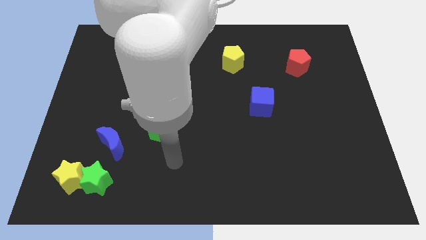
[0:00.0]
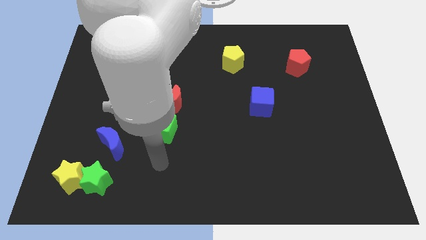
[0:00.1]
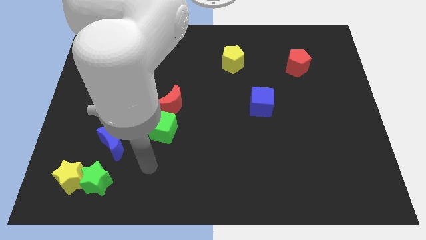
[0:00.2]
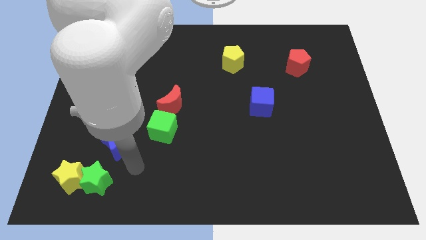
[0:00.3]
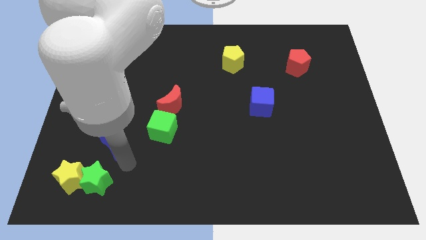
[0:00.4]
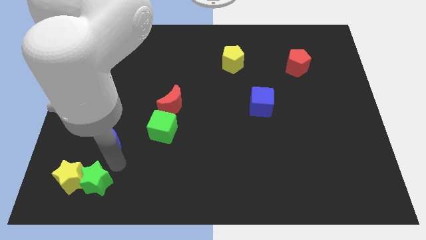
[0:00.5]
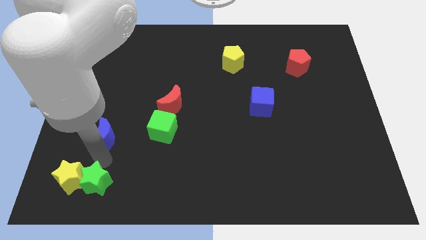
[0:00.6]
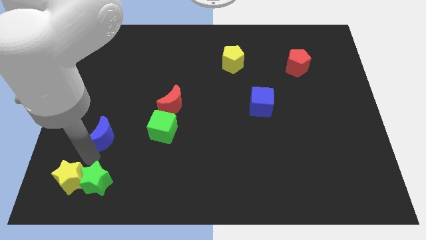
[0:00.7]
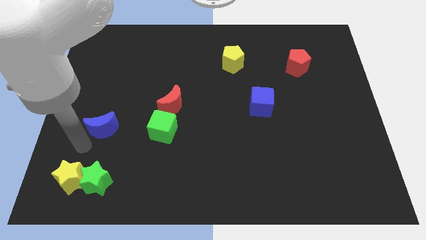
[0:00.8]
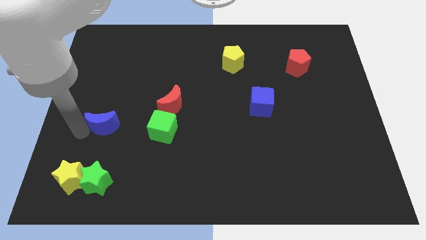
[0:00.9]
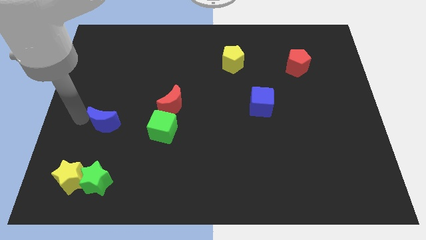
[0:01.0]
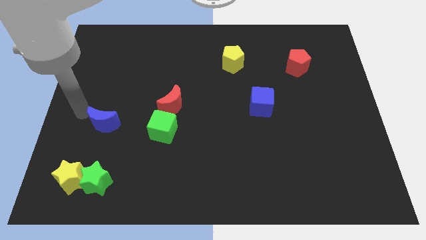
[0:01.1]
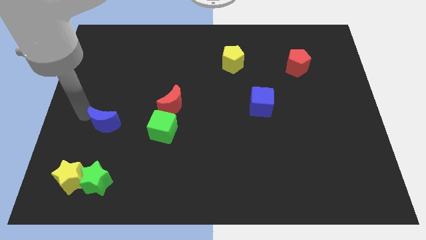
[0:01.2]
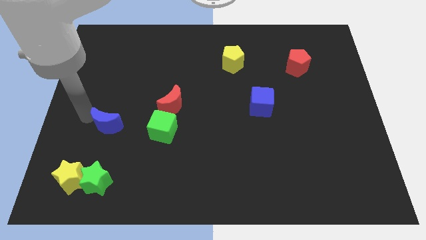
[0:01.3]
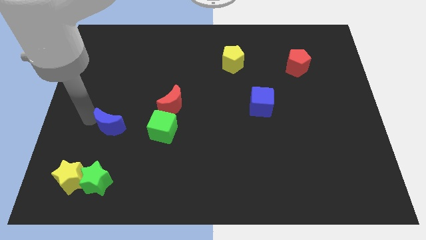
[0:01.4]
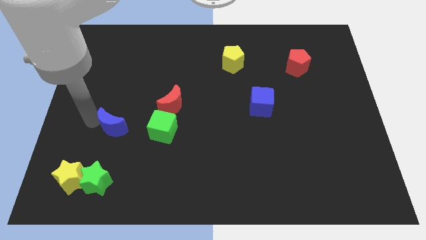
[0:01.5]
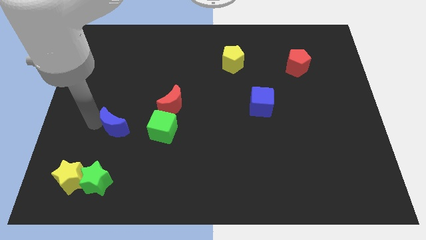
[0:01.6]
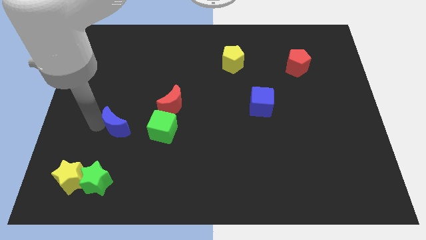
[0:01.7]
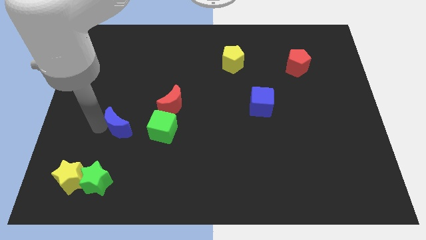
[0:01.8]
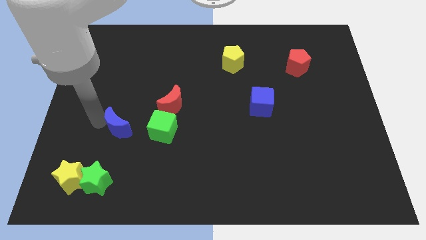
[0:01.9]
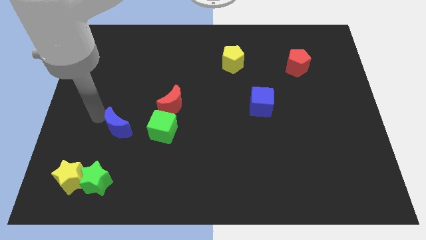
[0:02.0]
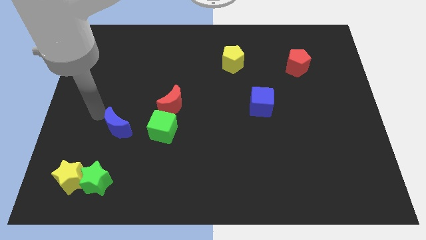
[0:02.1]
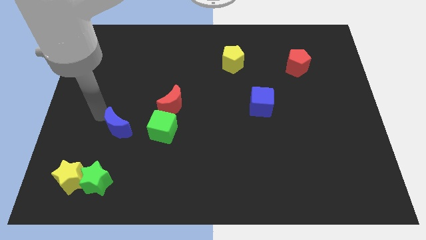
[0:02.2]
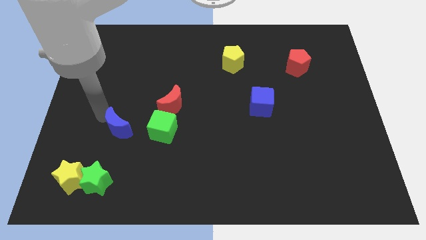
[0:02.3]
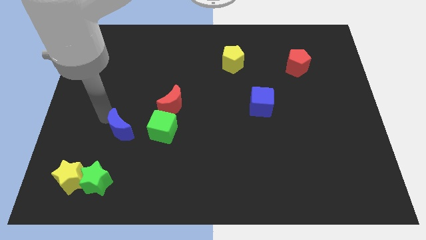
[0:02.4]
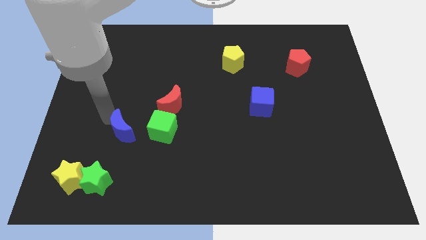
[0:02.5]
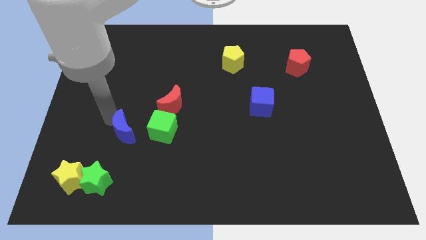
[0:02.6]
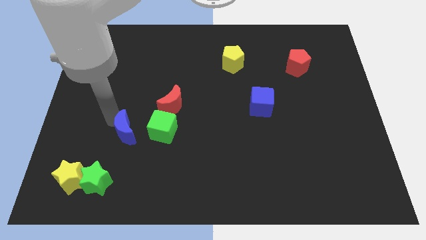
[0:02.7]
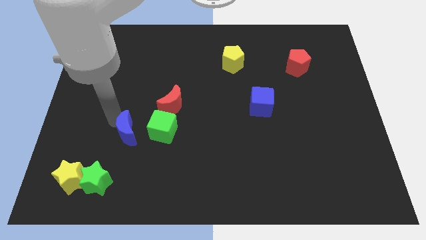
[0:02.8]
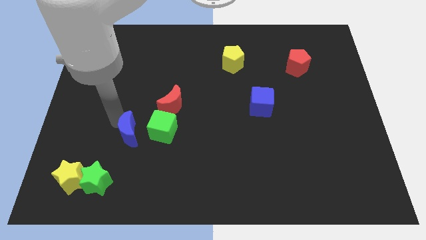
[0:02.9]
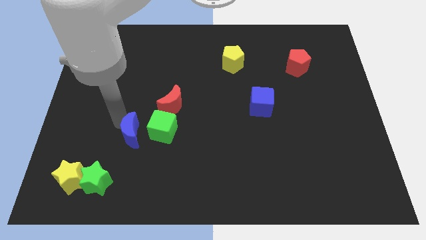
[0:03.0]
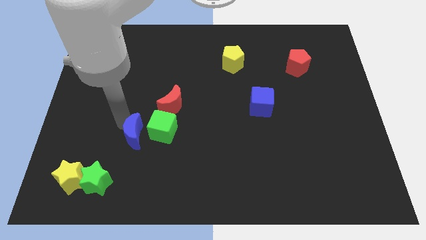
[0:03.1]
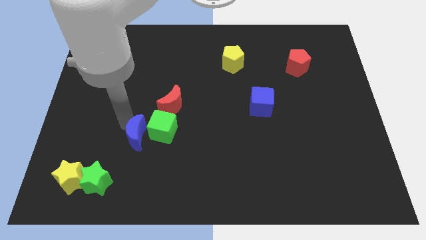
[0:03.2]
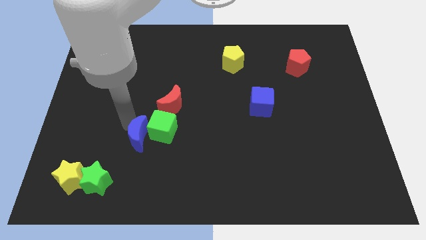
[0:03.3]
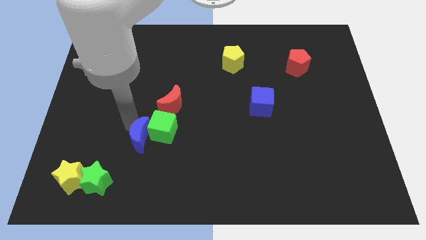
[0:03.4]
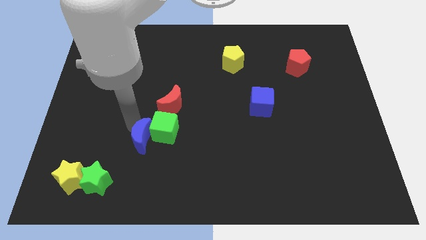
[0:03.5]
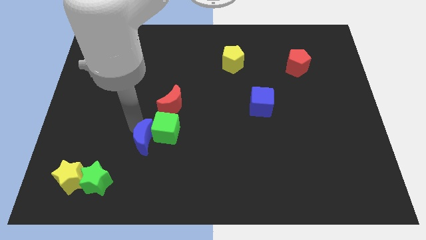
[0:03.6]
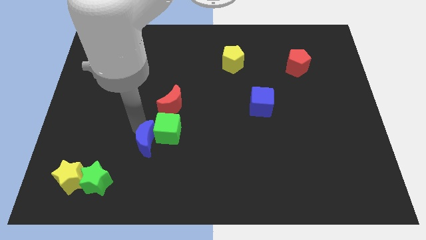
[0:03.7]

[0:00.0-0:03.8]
slide the blue moon a little bit to the right

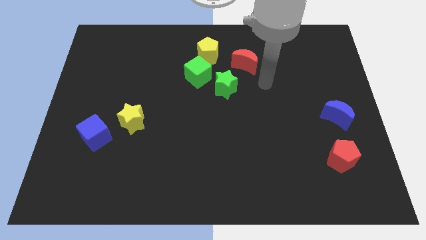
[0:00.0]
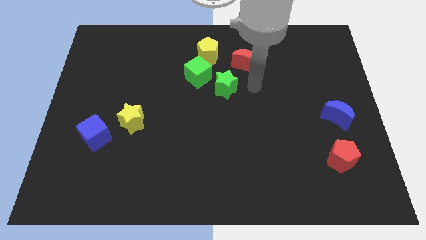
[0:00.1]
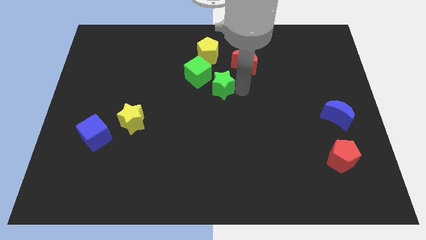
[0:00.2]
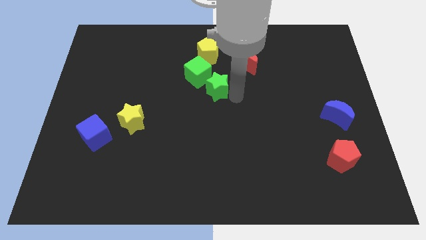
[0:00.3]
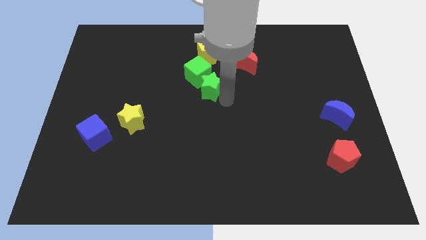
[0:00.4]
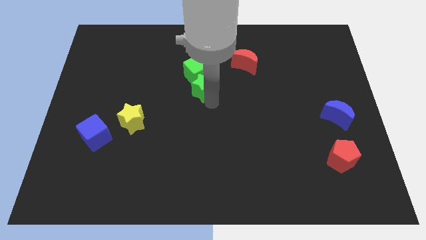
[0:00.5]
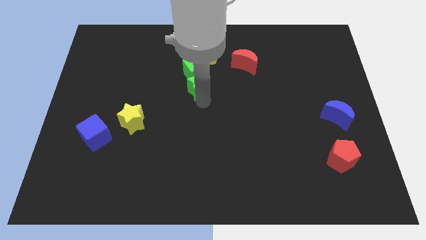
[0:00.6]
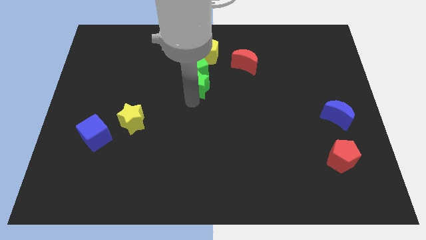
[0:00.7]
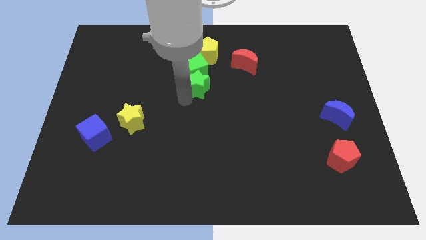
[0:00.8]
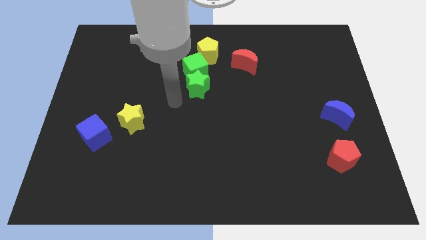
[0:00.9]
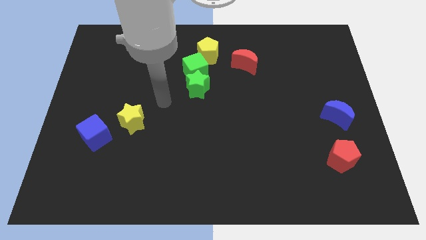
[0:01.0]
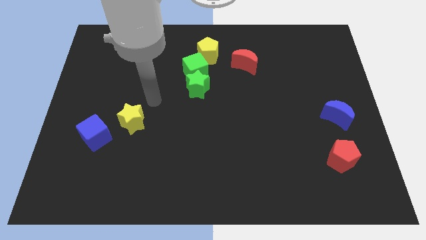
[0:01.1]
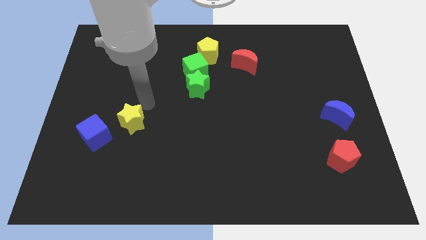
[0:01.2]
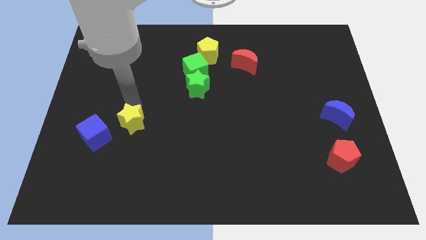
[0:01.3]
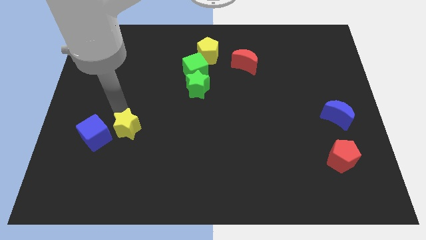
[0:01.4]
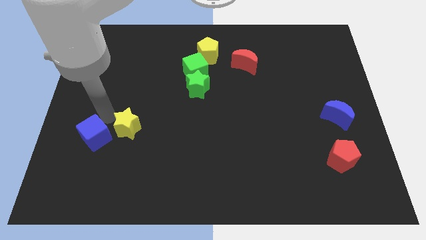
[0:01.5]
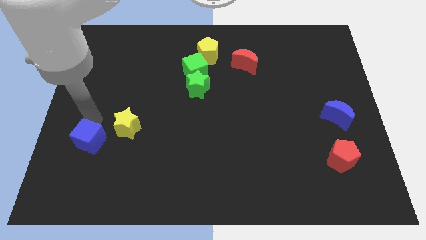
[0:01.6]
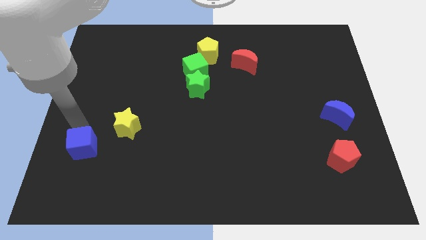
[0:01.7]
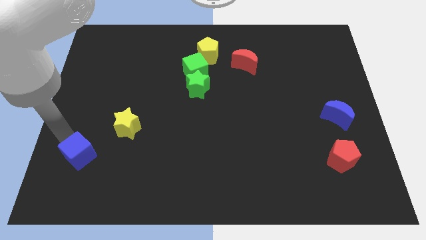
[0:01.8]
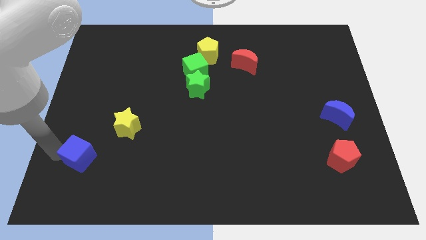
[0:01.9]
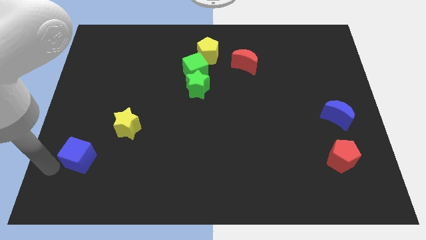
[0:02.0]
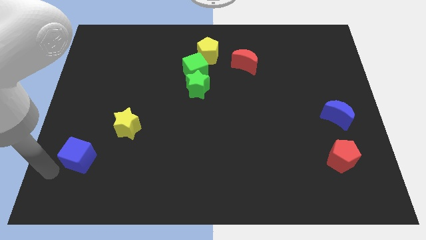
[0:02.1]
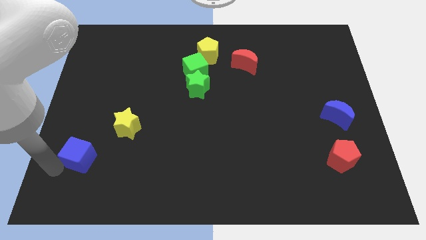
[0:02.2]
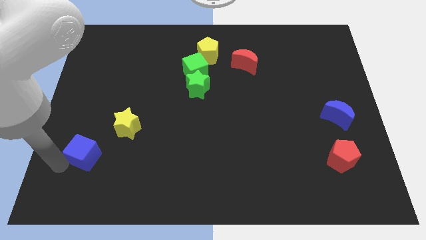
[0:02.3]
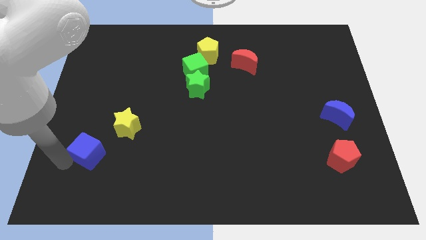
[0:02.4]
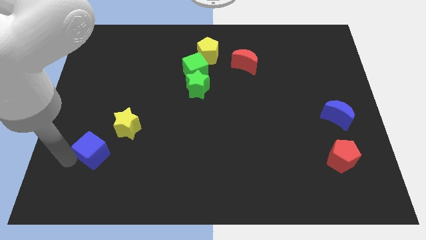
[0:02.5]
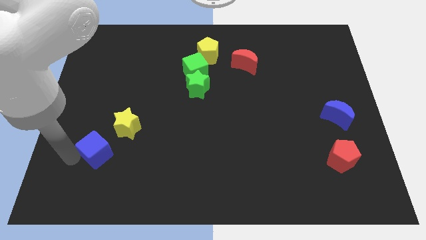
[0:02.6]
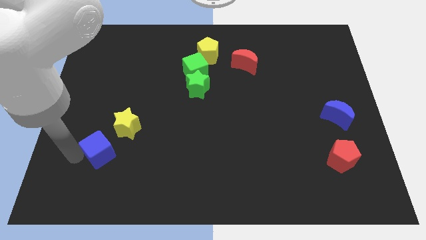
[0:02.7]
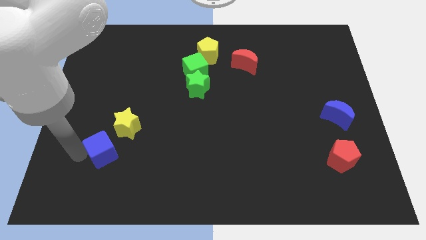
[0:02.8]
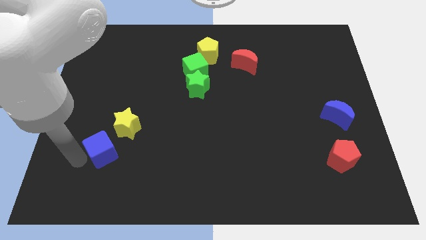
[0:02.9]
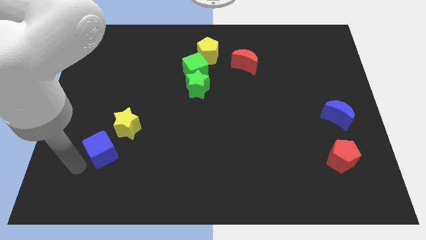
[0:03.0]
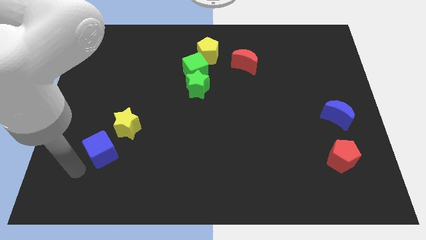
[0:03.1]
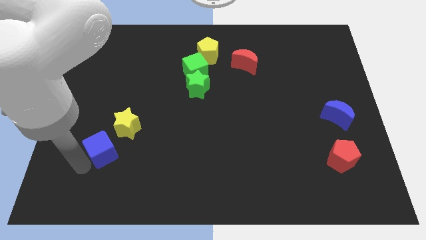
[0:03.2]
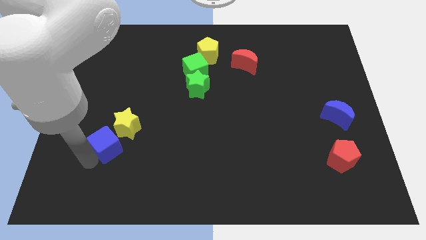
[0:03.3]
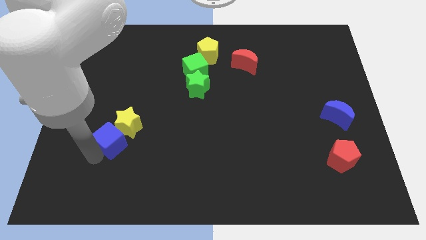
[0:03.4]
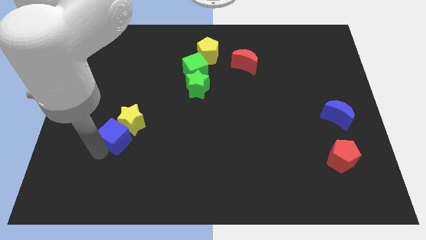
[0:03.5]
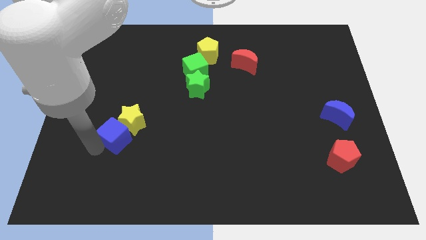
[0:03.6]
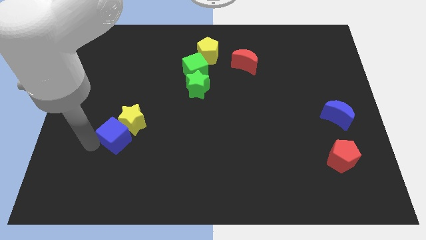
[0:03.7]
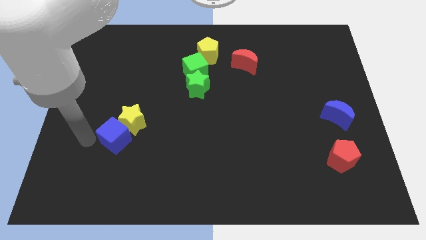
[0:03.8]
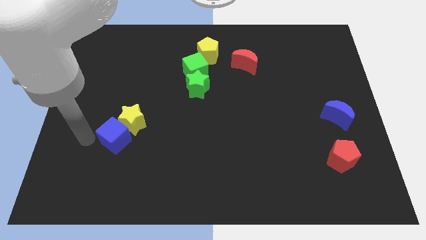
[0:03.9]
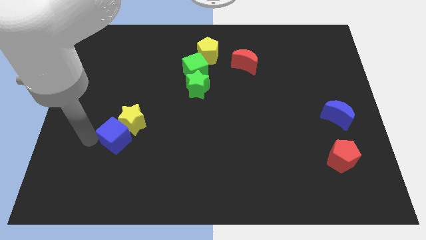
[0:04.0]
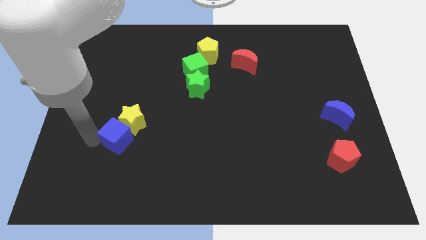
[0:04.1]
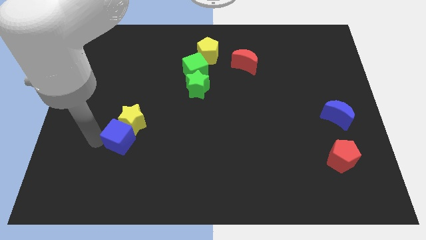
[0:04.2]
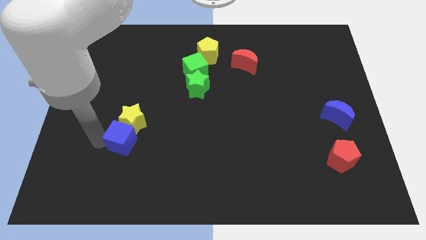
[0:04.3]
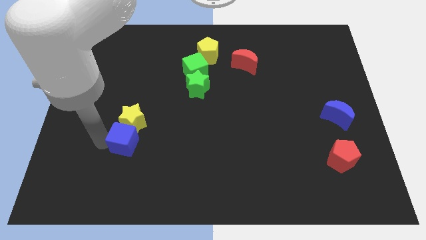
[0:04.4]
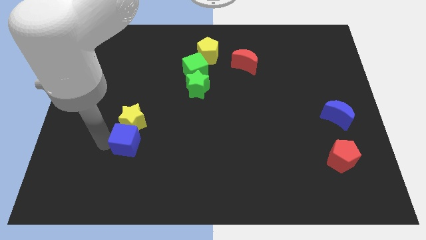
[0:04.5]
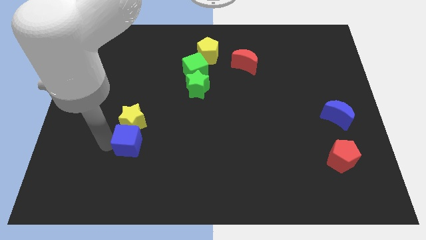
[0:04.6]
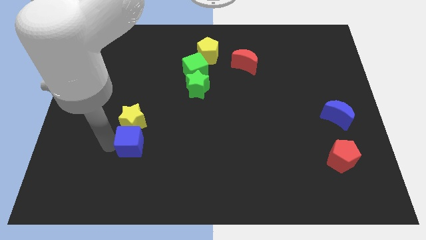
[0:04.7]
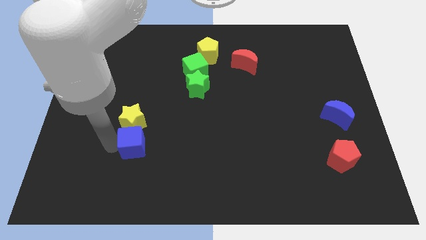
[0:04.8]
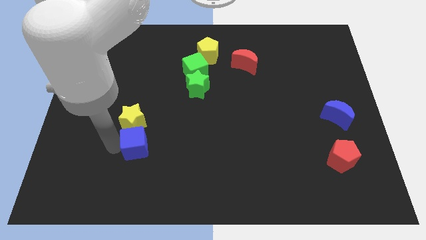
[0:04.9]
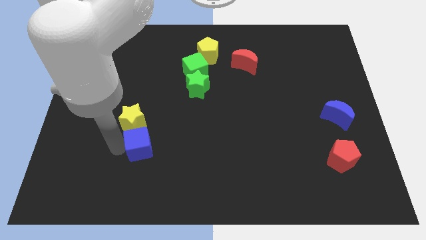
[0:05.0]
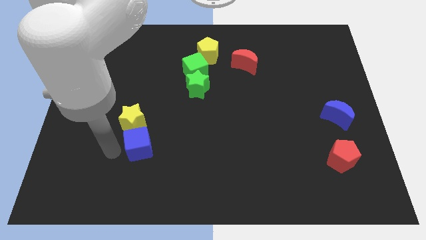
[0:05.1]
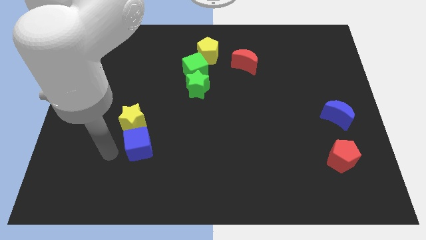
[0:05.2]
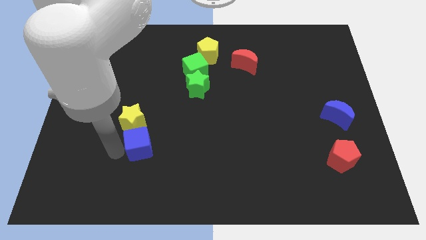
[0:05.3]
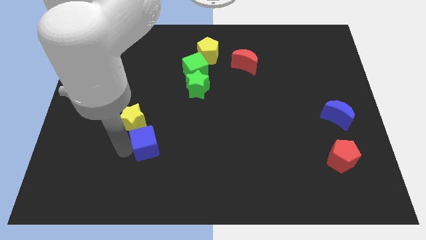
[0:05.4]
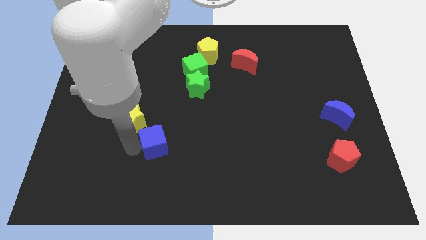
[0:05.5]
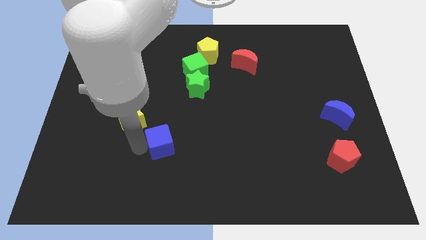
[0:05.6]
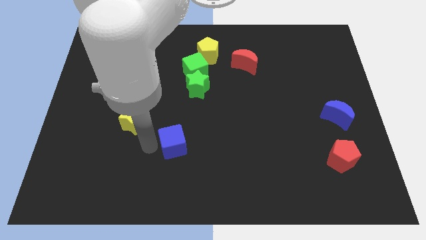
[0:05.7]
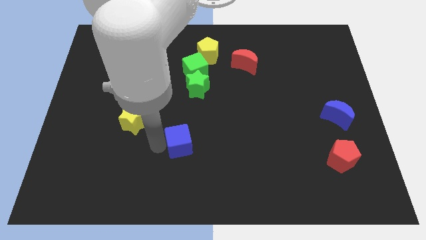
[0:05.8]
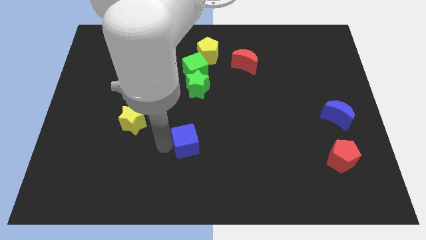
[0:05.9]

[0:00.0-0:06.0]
push the blue cube right
